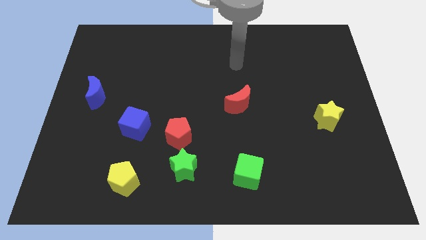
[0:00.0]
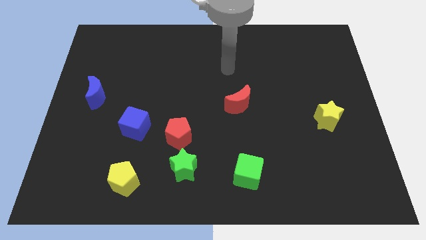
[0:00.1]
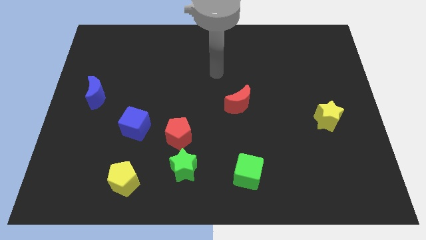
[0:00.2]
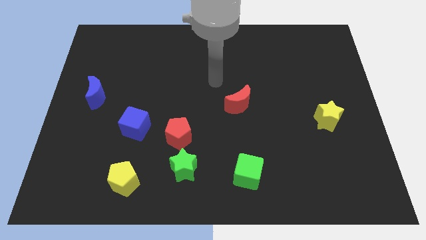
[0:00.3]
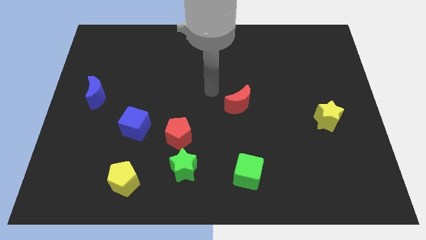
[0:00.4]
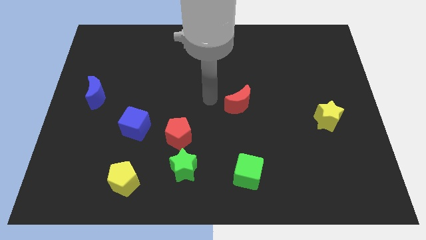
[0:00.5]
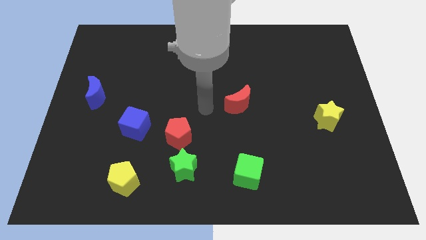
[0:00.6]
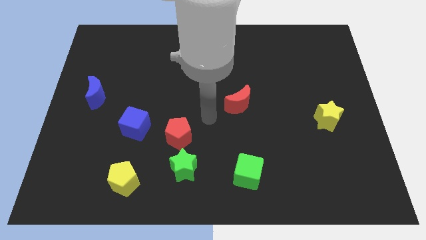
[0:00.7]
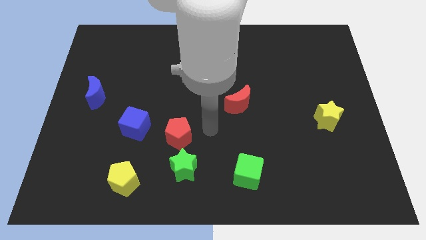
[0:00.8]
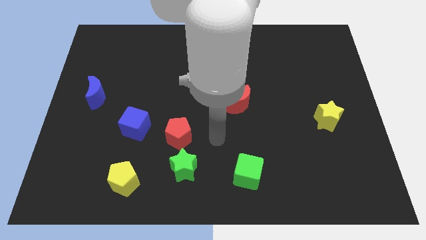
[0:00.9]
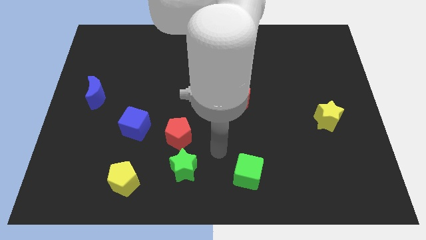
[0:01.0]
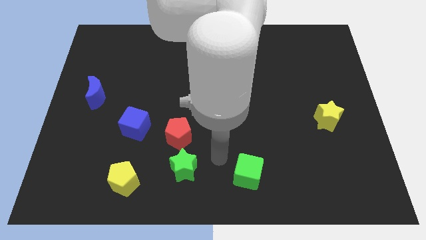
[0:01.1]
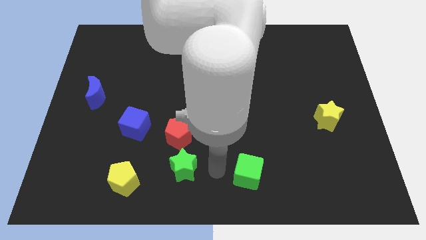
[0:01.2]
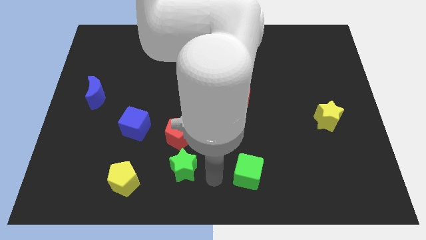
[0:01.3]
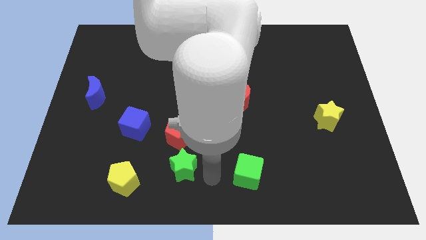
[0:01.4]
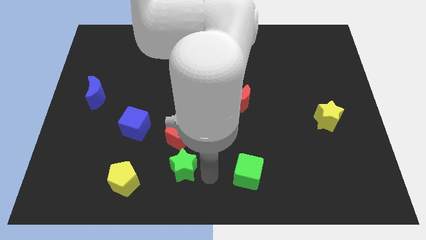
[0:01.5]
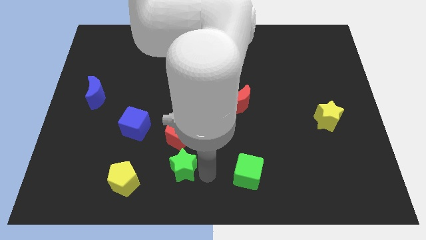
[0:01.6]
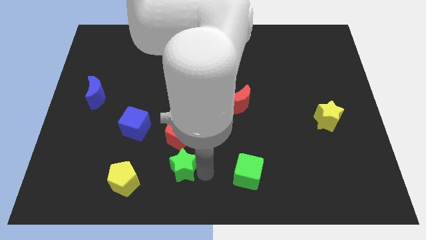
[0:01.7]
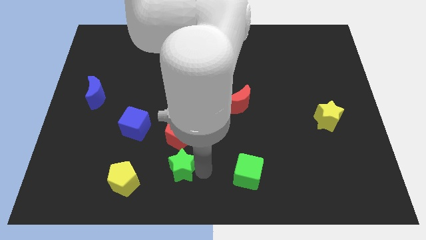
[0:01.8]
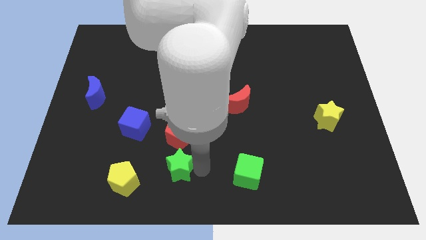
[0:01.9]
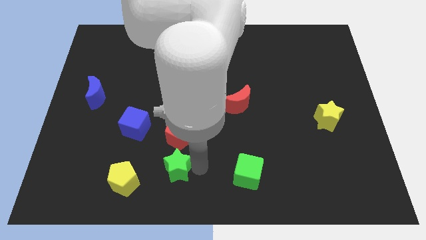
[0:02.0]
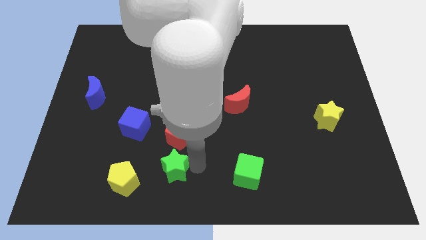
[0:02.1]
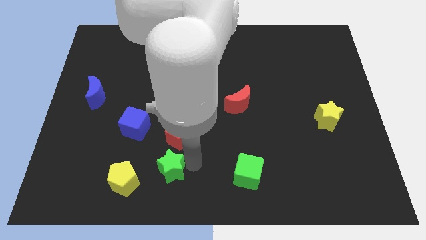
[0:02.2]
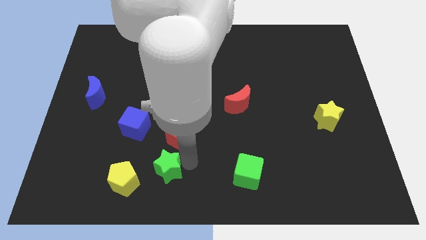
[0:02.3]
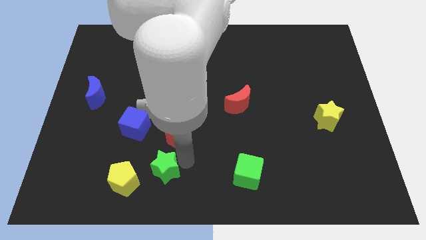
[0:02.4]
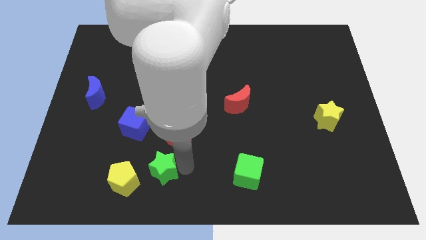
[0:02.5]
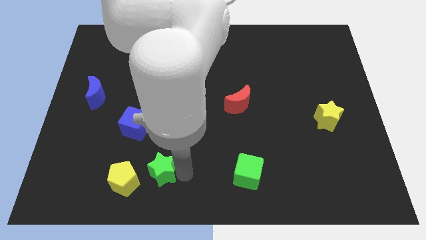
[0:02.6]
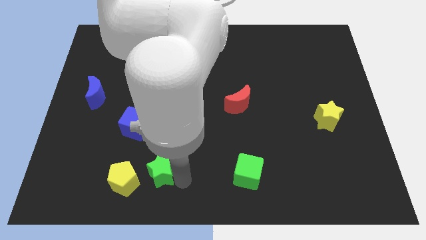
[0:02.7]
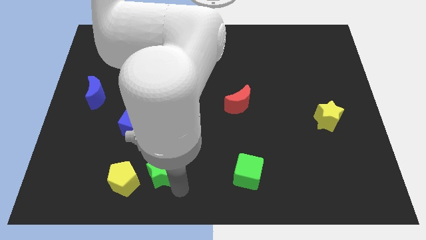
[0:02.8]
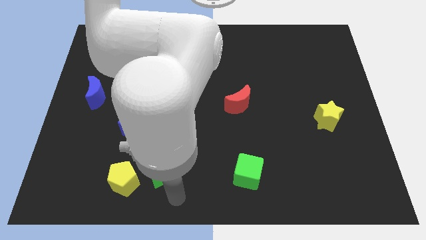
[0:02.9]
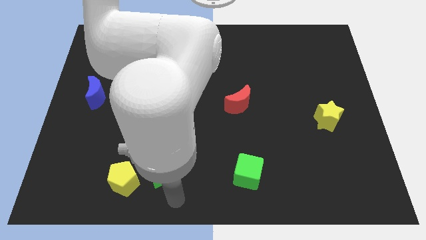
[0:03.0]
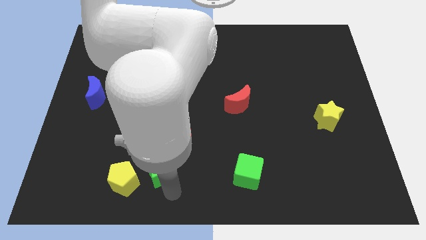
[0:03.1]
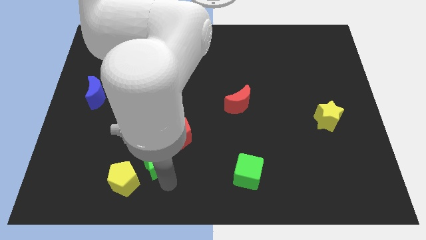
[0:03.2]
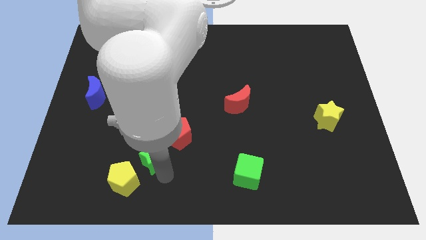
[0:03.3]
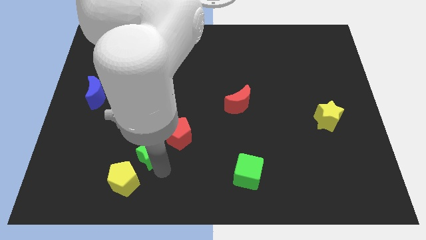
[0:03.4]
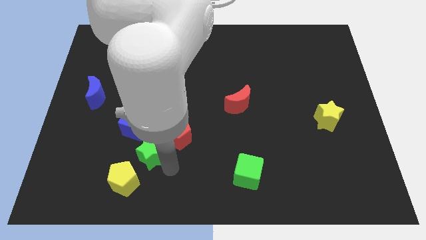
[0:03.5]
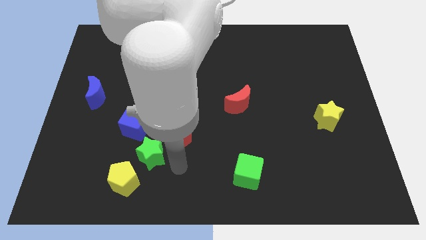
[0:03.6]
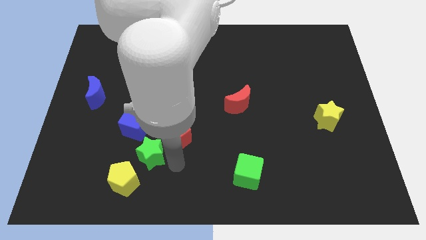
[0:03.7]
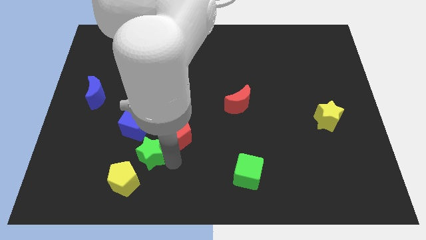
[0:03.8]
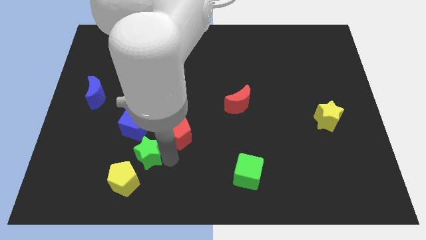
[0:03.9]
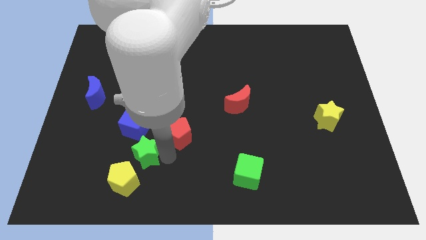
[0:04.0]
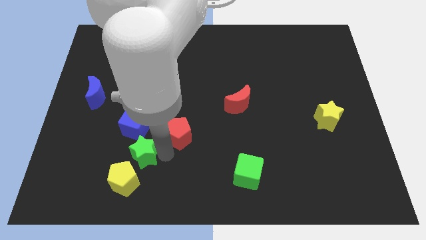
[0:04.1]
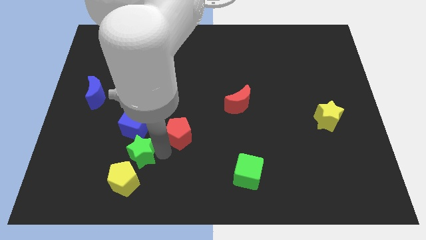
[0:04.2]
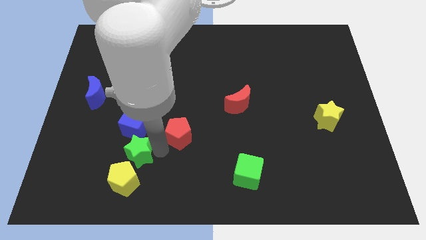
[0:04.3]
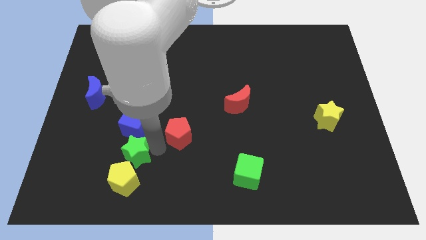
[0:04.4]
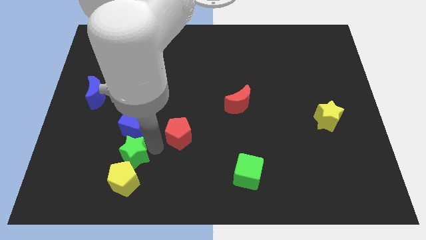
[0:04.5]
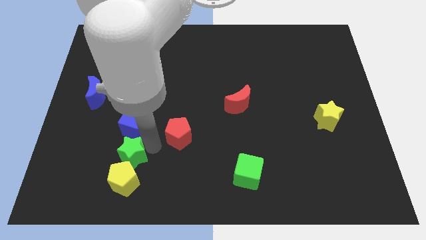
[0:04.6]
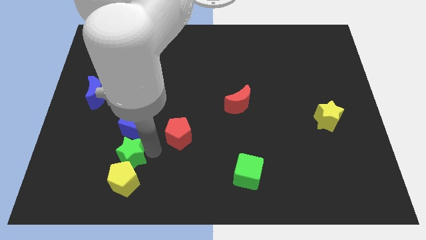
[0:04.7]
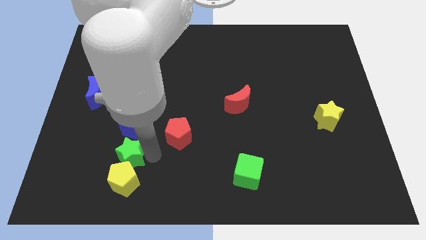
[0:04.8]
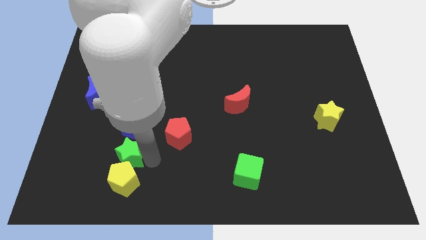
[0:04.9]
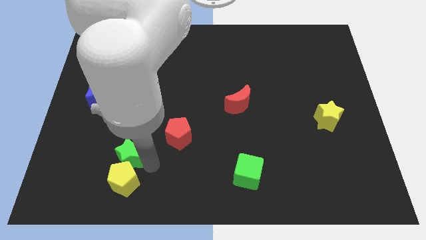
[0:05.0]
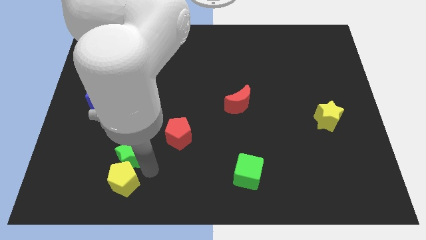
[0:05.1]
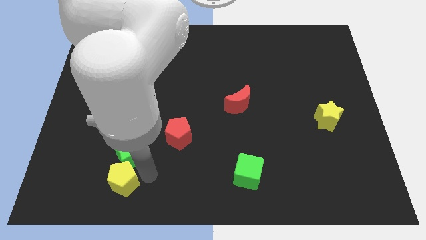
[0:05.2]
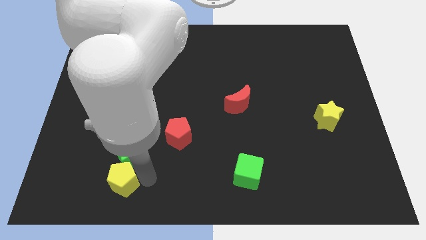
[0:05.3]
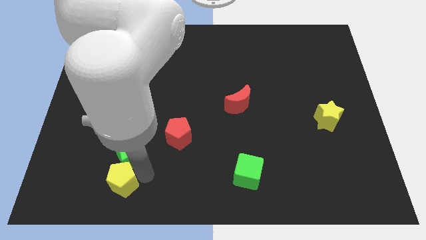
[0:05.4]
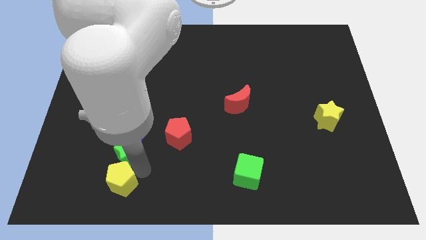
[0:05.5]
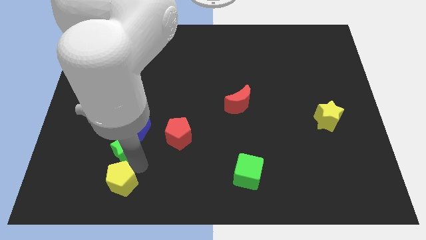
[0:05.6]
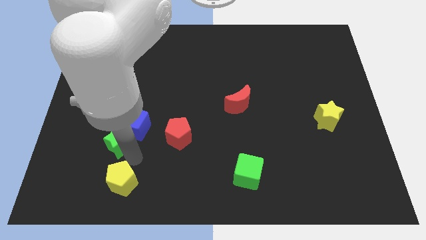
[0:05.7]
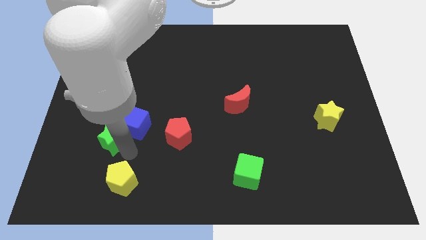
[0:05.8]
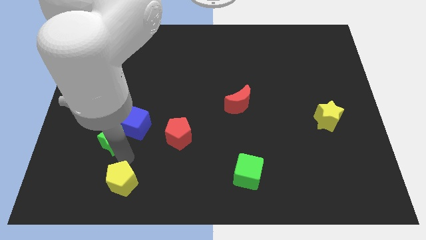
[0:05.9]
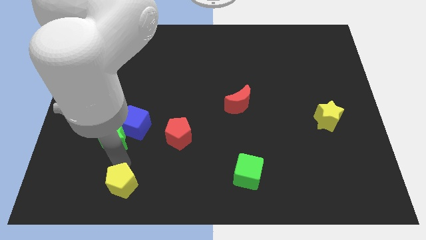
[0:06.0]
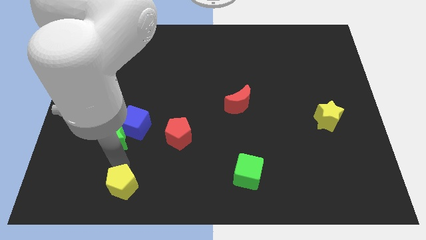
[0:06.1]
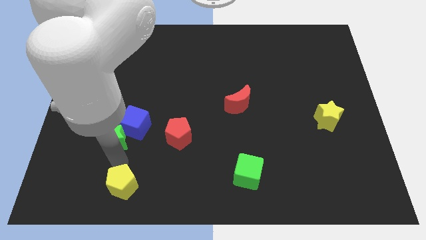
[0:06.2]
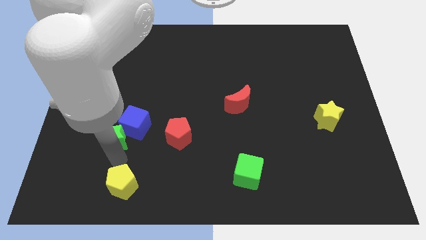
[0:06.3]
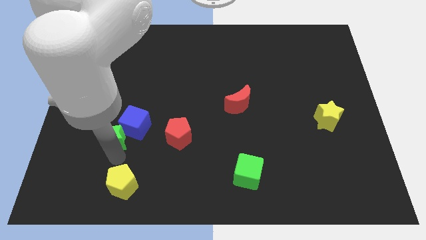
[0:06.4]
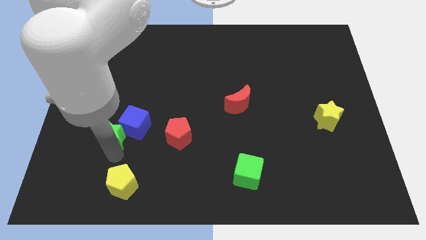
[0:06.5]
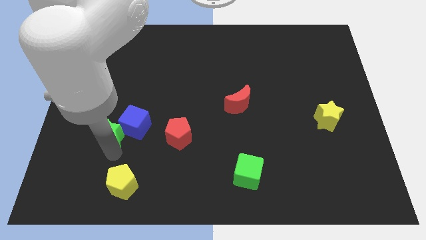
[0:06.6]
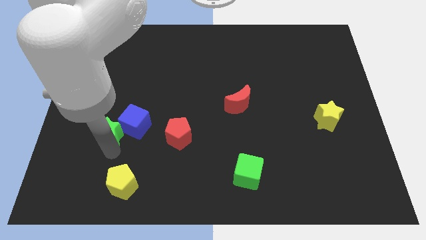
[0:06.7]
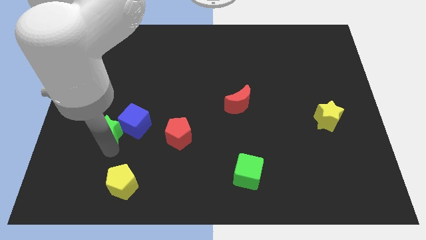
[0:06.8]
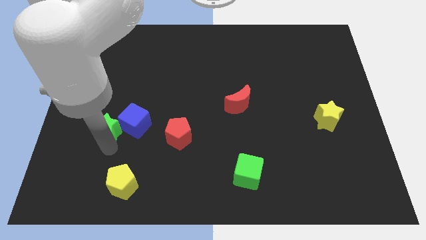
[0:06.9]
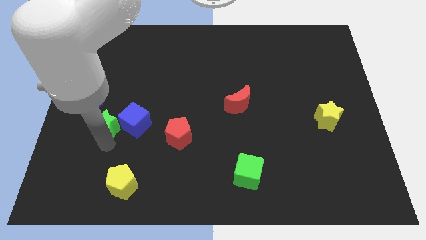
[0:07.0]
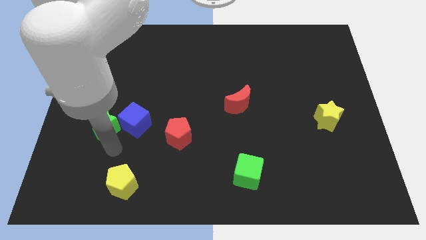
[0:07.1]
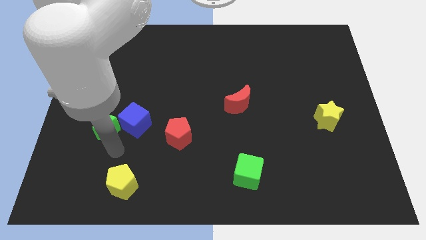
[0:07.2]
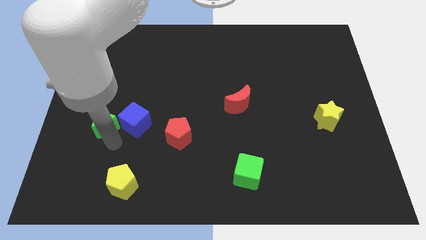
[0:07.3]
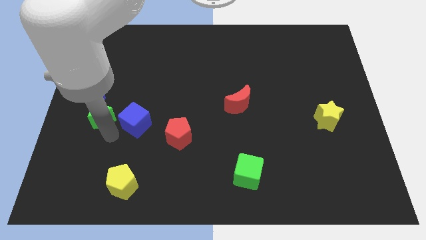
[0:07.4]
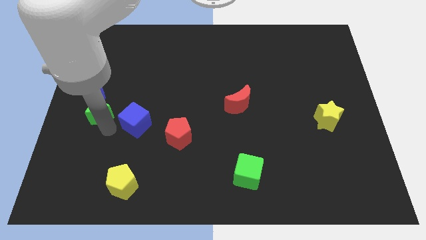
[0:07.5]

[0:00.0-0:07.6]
slide the green star towards the blue moon
